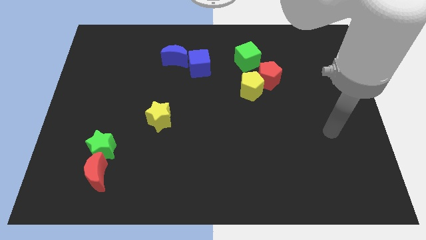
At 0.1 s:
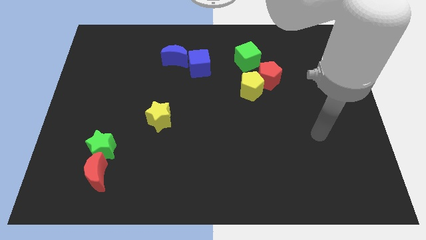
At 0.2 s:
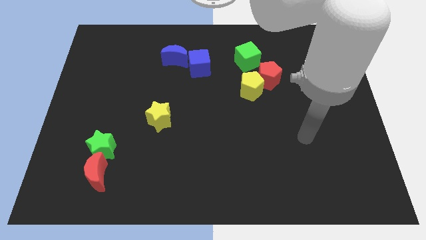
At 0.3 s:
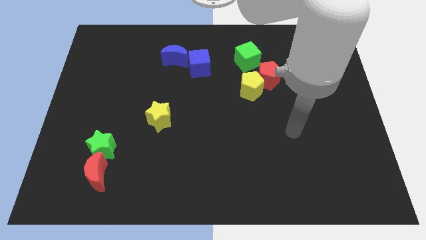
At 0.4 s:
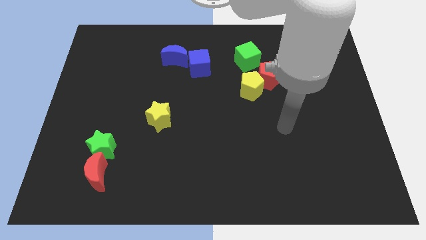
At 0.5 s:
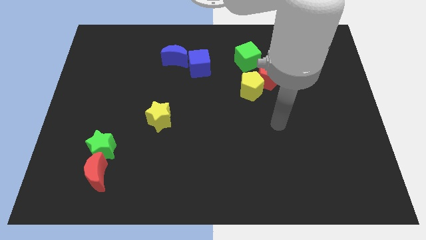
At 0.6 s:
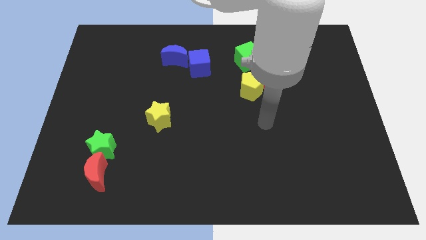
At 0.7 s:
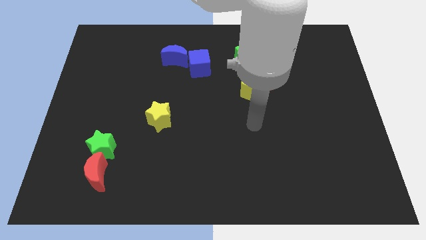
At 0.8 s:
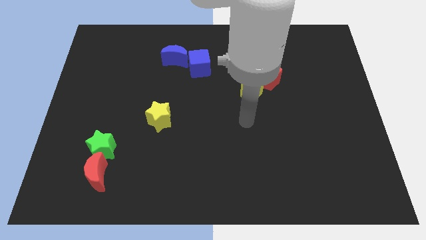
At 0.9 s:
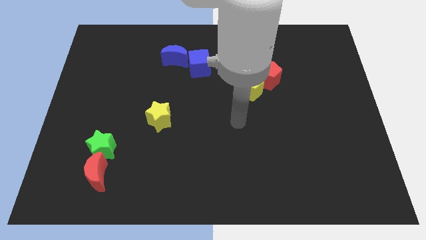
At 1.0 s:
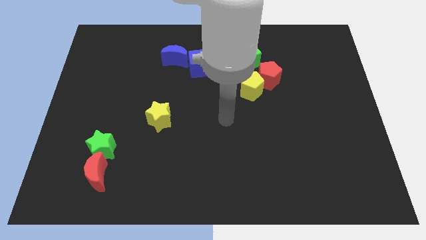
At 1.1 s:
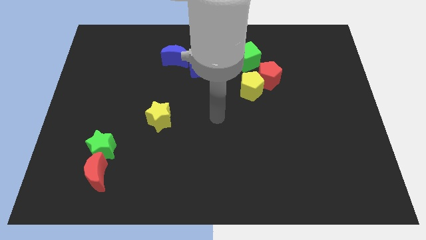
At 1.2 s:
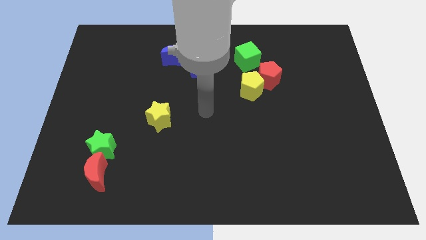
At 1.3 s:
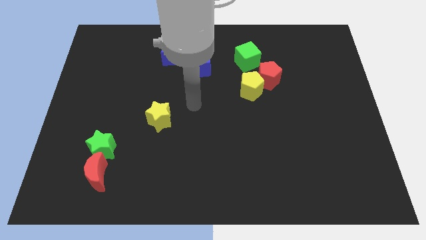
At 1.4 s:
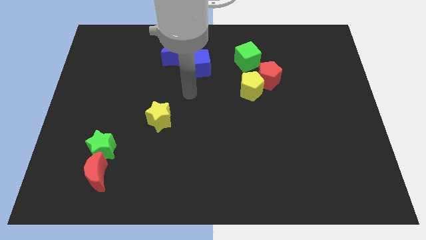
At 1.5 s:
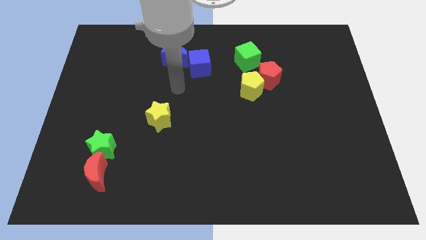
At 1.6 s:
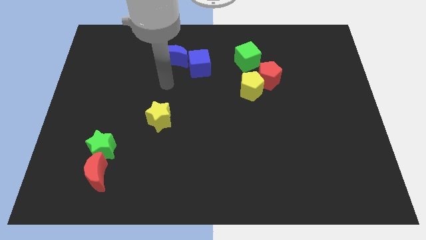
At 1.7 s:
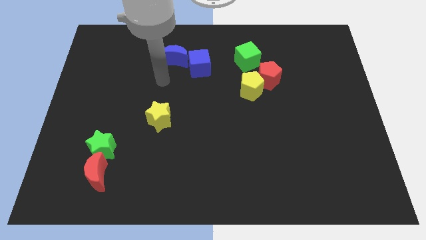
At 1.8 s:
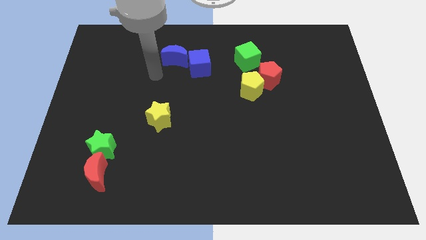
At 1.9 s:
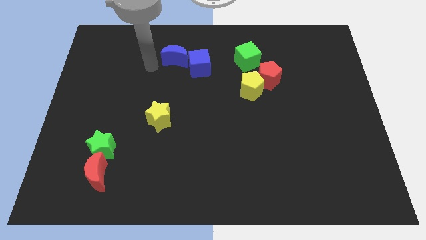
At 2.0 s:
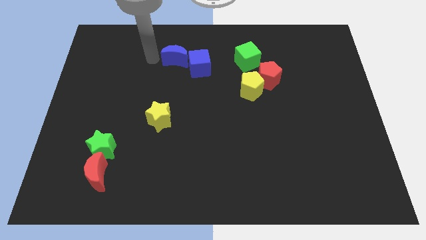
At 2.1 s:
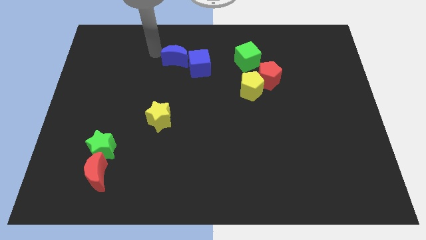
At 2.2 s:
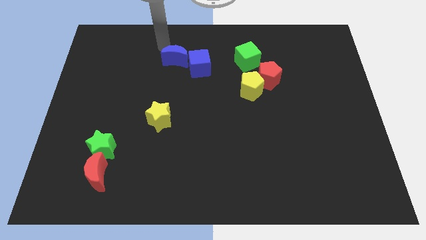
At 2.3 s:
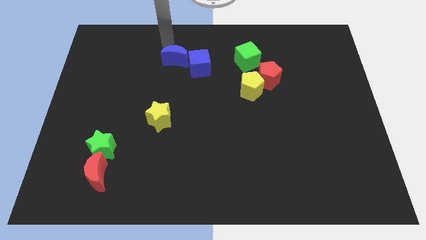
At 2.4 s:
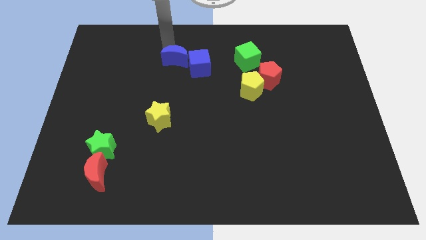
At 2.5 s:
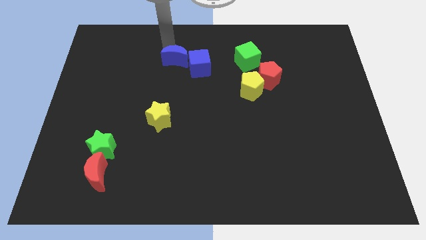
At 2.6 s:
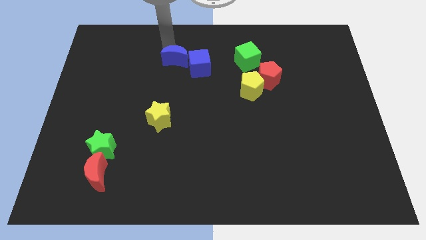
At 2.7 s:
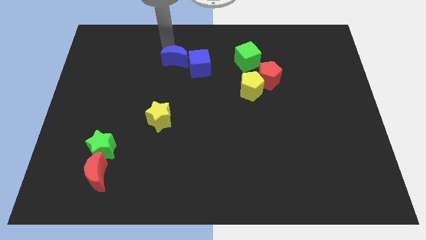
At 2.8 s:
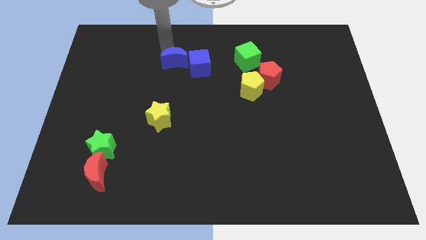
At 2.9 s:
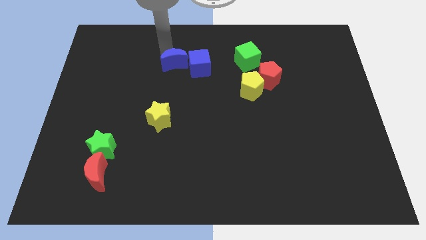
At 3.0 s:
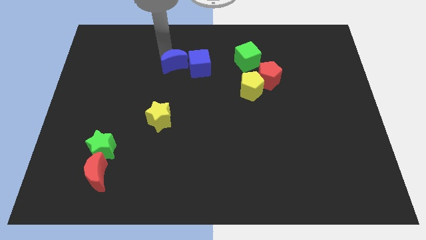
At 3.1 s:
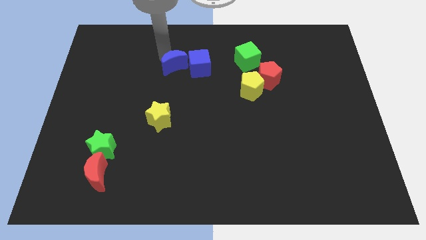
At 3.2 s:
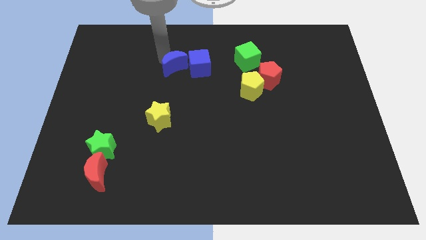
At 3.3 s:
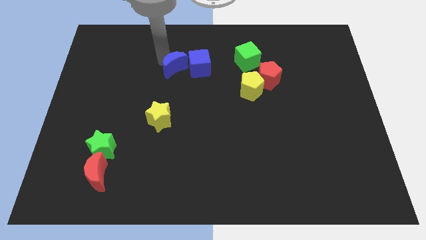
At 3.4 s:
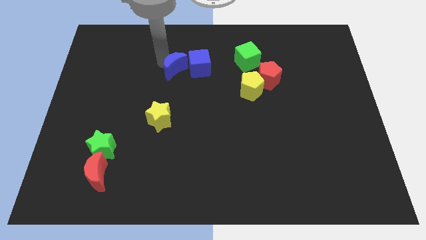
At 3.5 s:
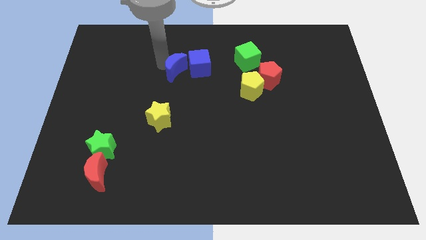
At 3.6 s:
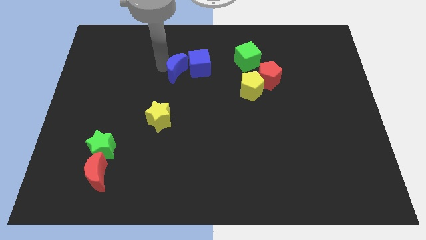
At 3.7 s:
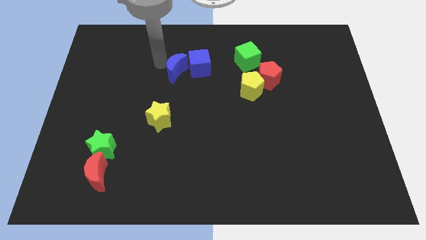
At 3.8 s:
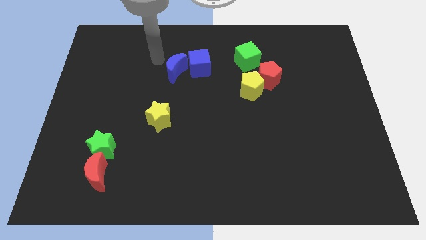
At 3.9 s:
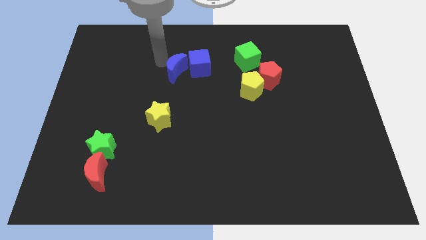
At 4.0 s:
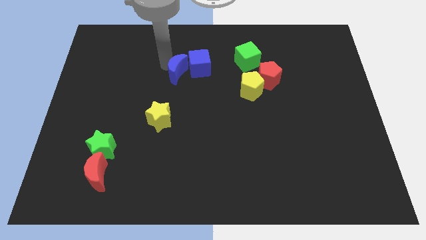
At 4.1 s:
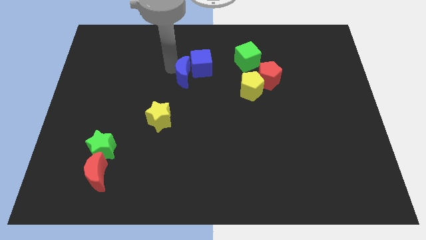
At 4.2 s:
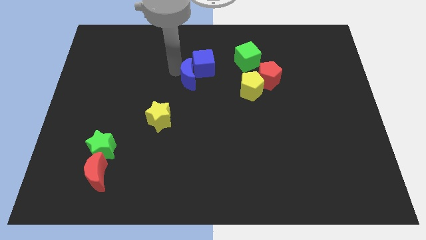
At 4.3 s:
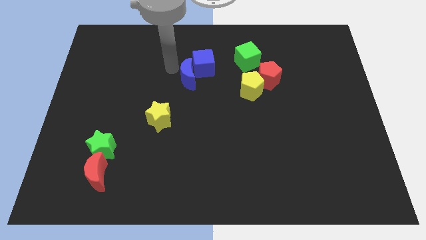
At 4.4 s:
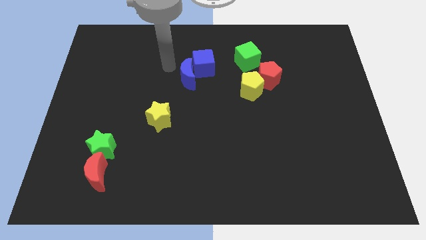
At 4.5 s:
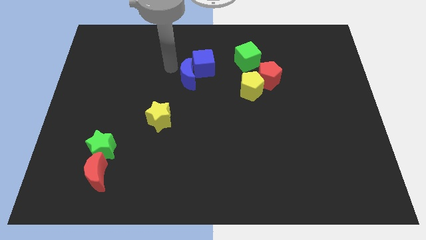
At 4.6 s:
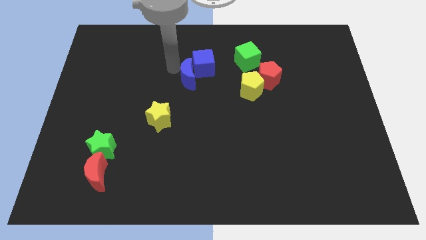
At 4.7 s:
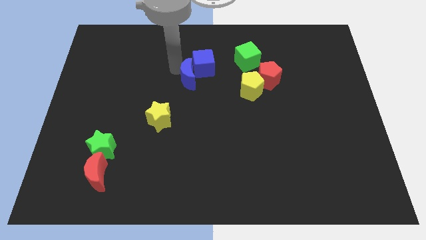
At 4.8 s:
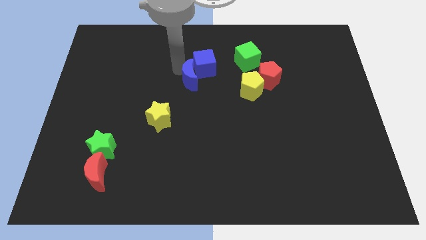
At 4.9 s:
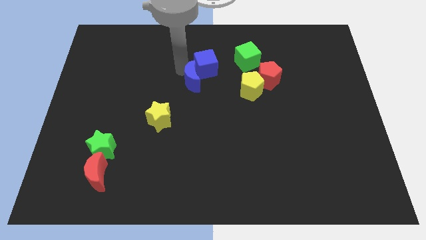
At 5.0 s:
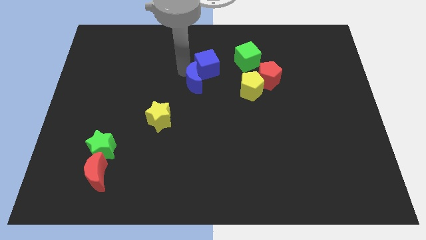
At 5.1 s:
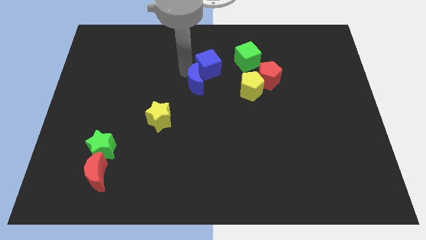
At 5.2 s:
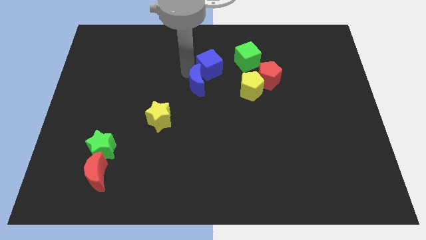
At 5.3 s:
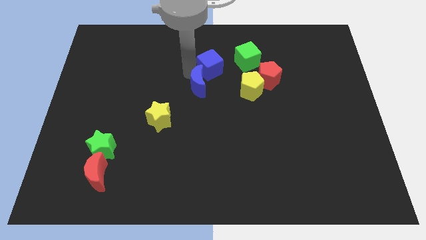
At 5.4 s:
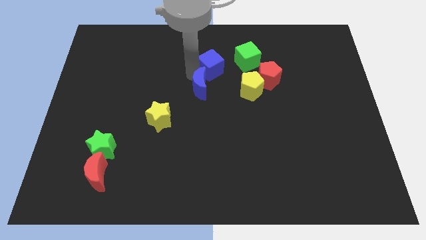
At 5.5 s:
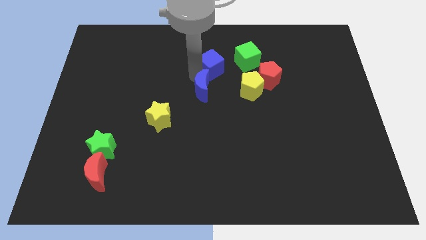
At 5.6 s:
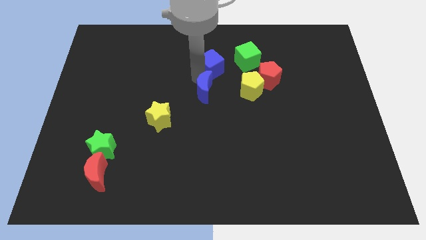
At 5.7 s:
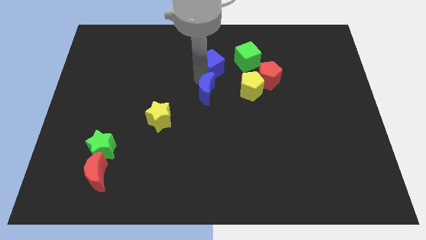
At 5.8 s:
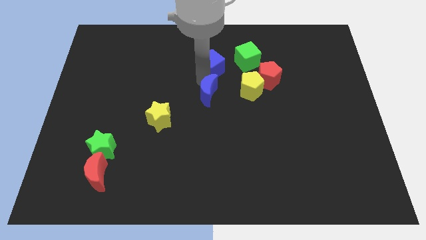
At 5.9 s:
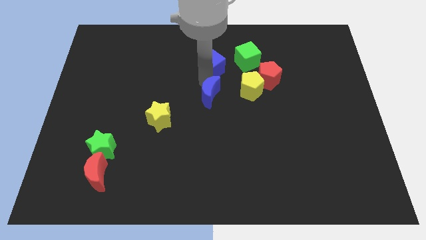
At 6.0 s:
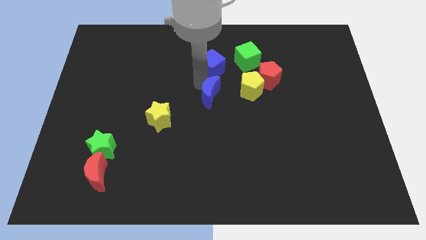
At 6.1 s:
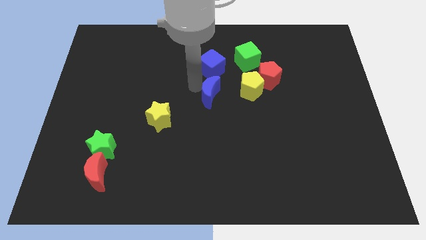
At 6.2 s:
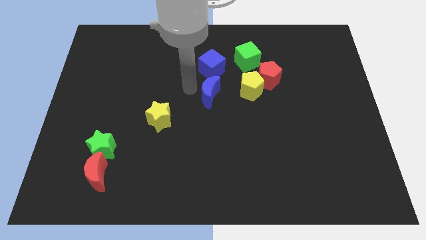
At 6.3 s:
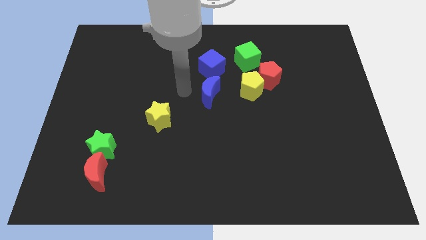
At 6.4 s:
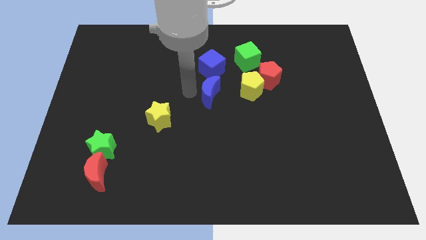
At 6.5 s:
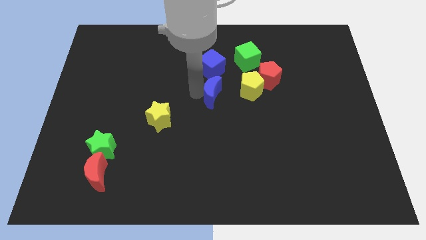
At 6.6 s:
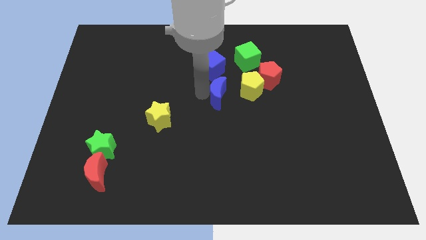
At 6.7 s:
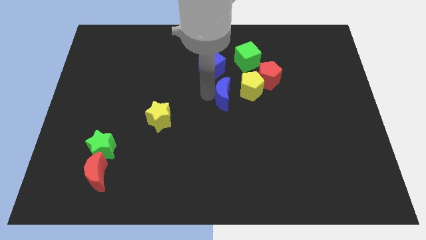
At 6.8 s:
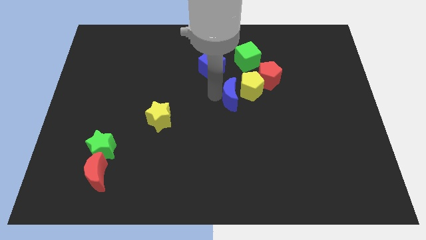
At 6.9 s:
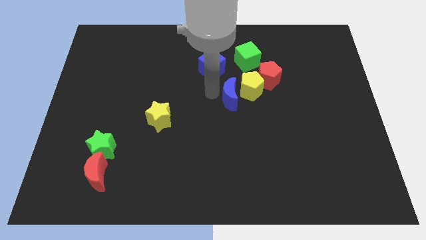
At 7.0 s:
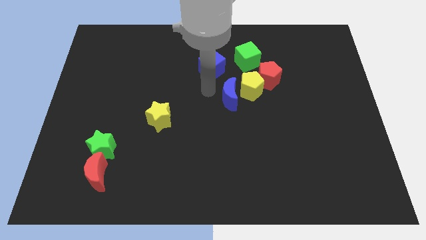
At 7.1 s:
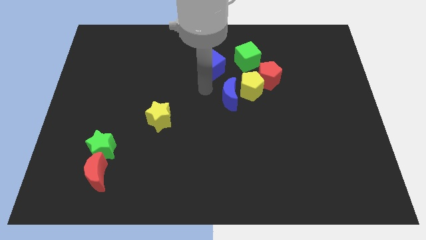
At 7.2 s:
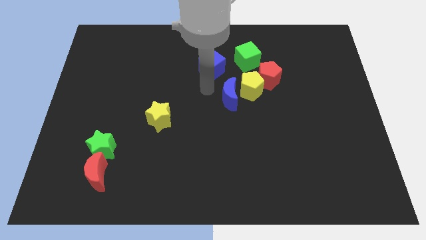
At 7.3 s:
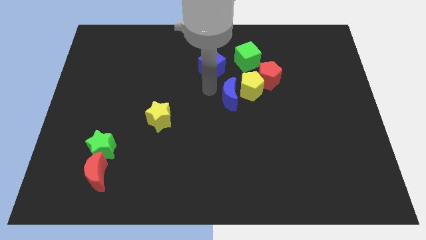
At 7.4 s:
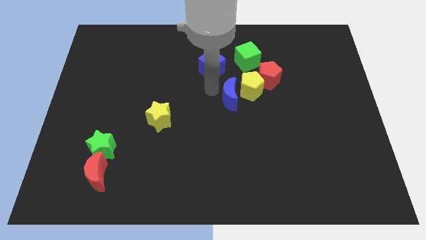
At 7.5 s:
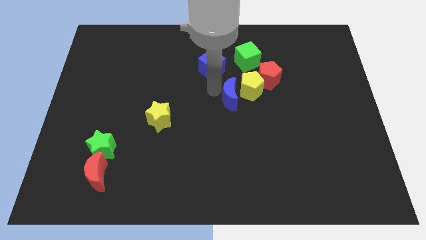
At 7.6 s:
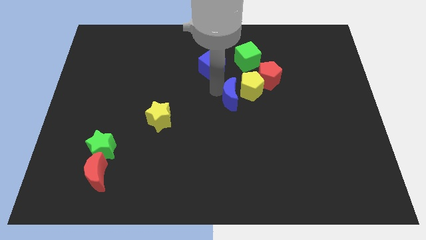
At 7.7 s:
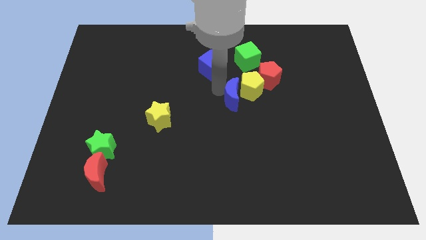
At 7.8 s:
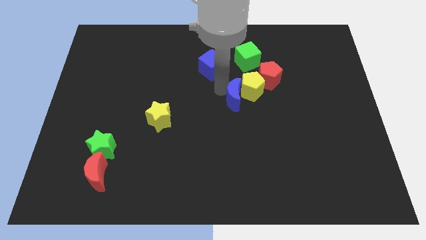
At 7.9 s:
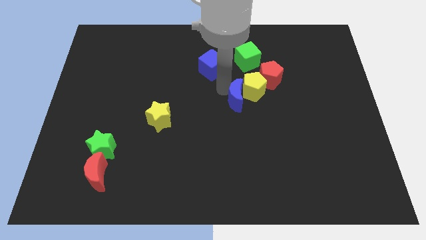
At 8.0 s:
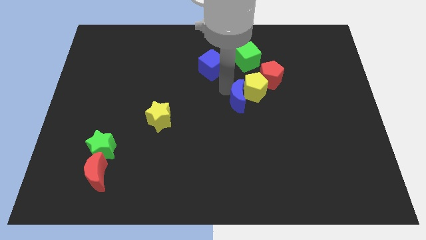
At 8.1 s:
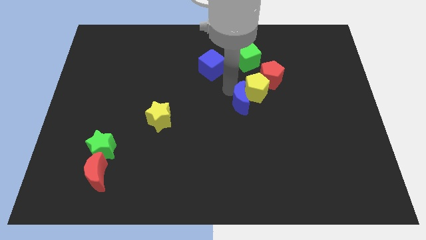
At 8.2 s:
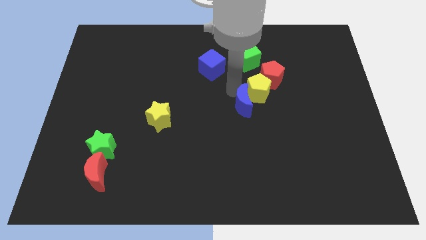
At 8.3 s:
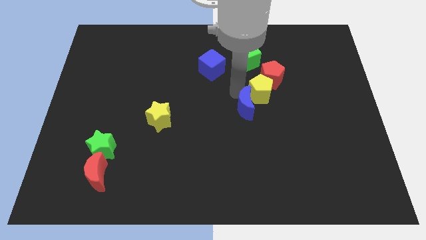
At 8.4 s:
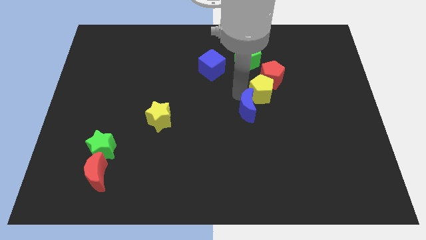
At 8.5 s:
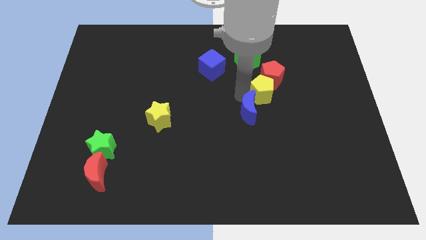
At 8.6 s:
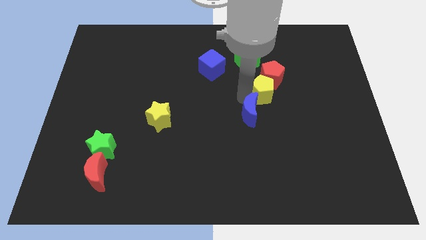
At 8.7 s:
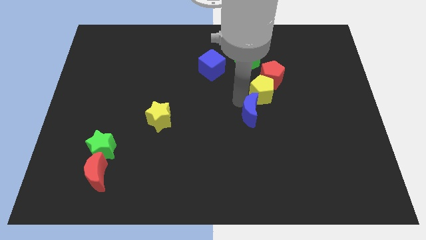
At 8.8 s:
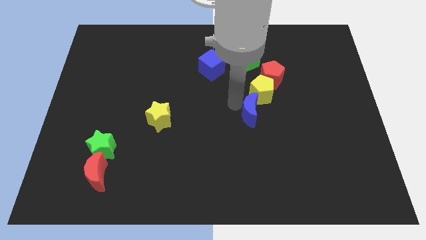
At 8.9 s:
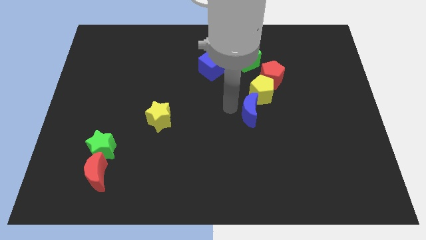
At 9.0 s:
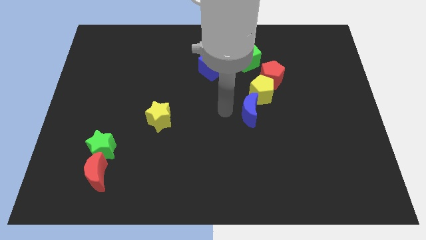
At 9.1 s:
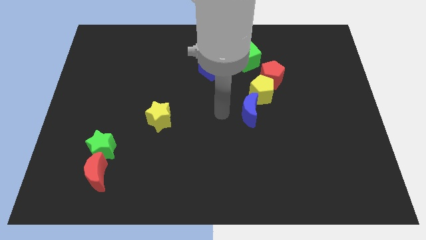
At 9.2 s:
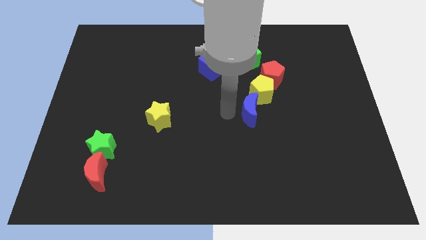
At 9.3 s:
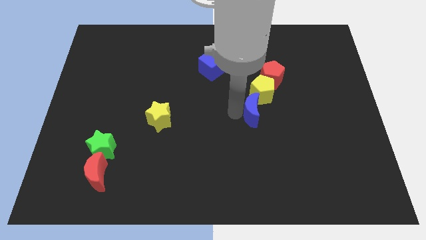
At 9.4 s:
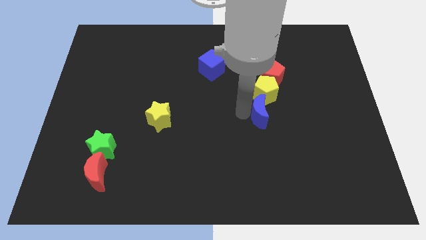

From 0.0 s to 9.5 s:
push the blue moon to the bottom of the red pentagon
